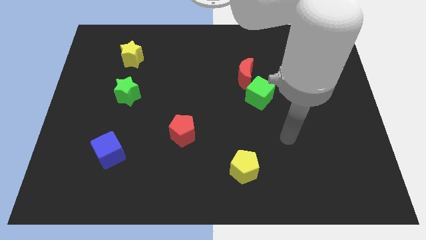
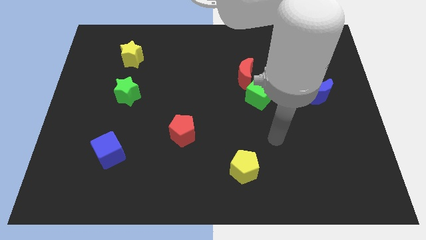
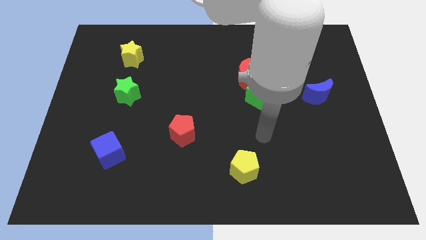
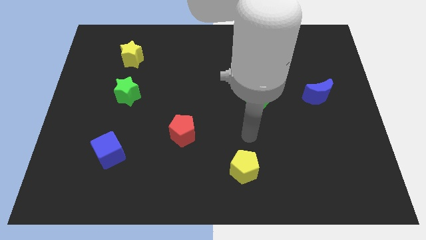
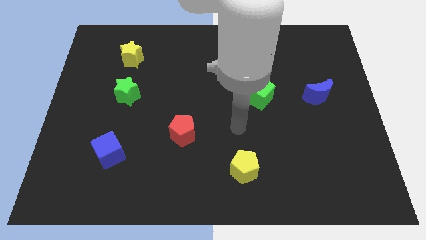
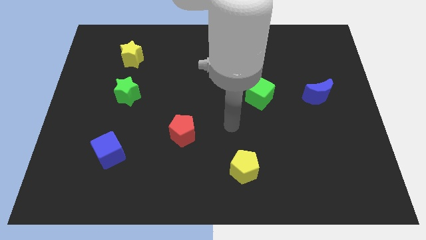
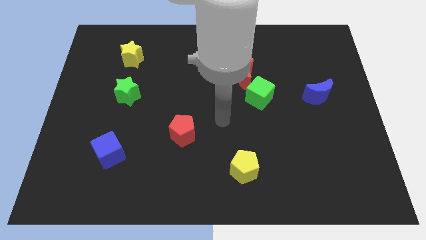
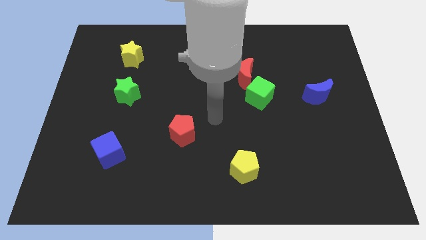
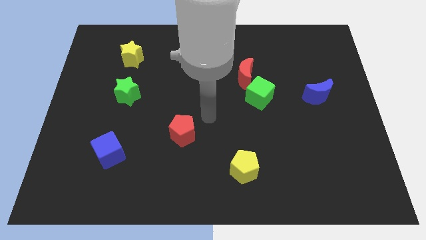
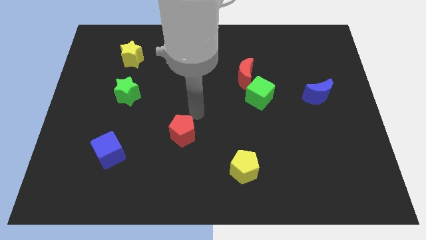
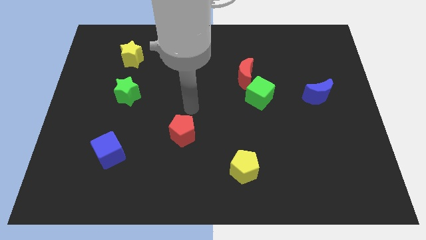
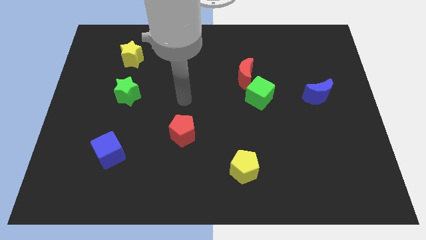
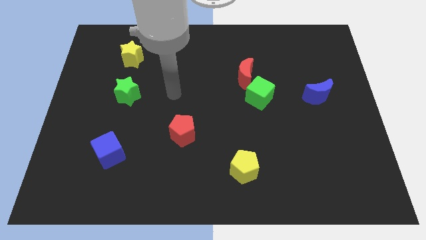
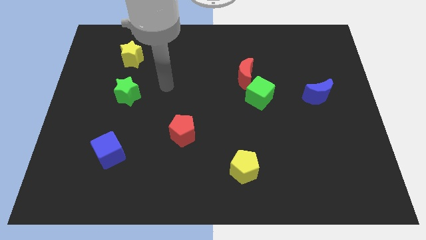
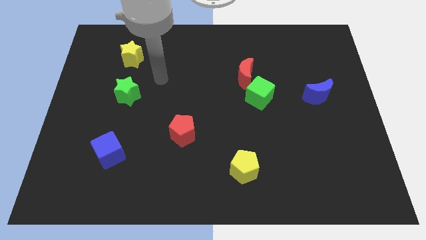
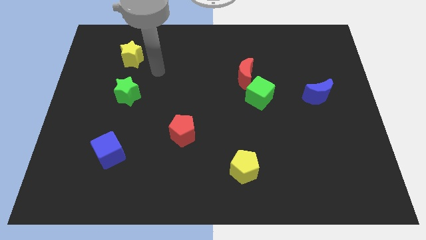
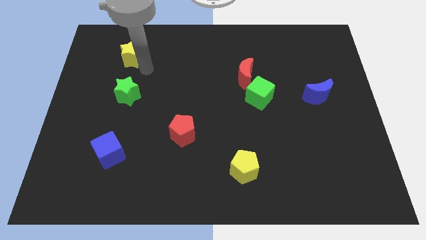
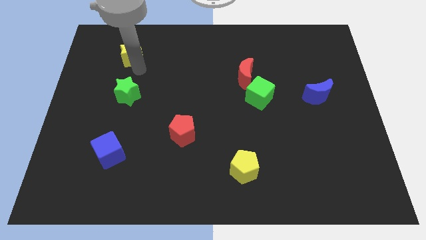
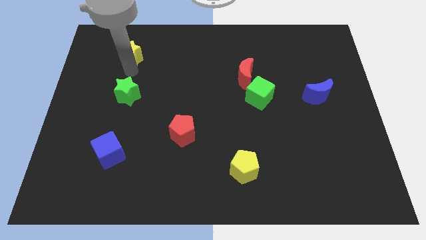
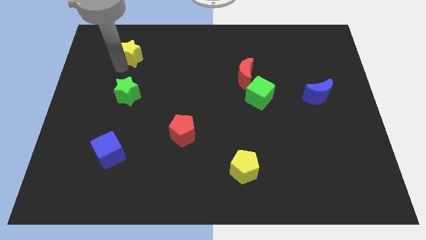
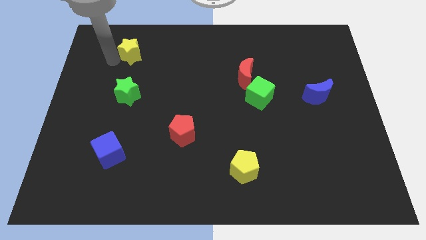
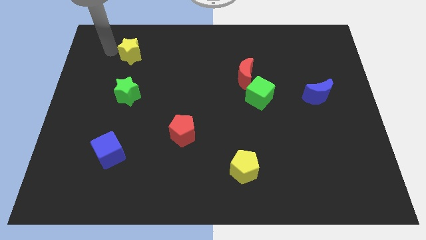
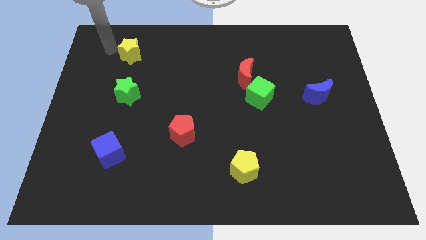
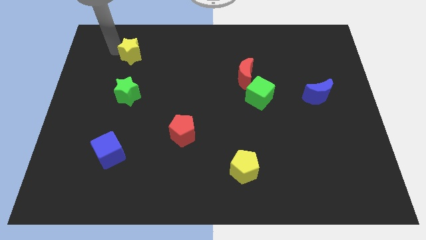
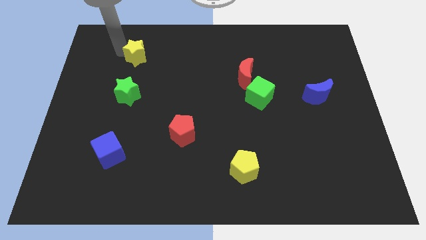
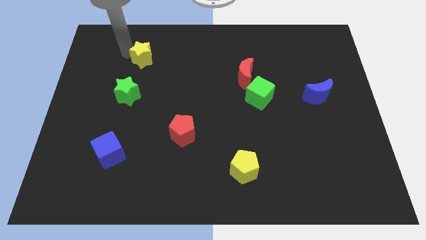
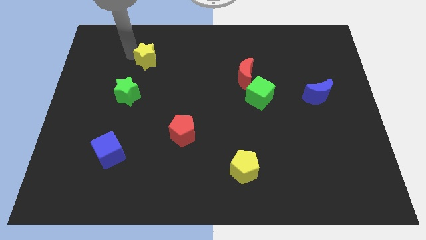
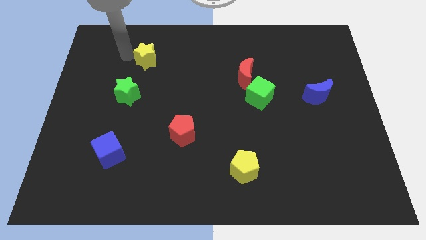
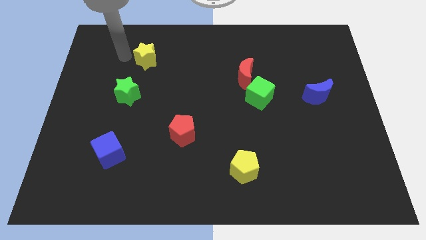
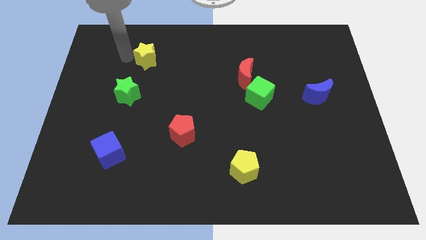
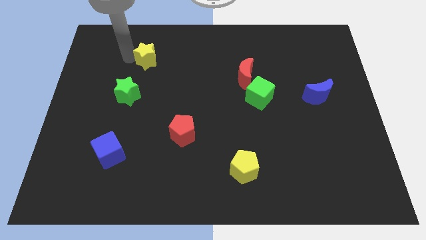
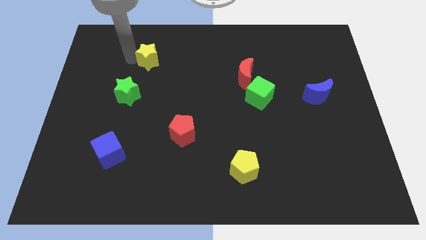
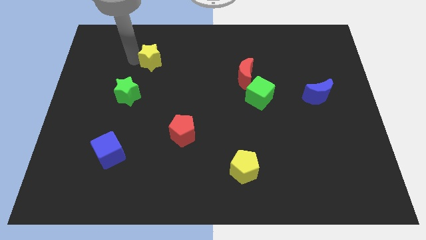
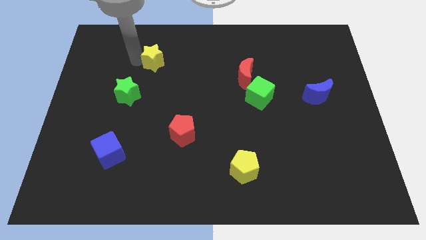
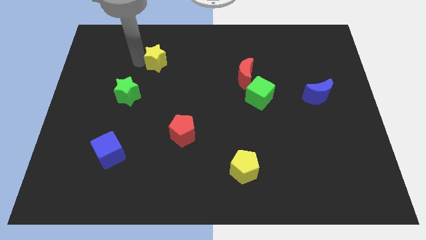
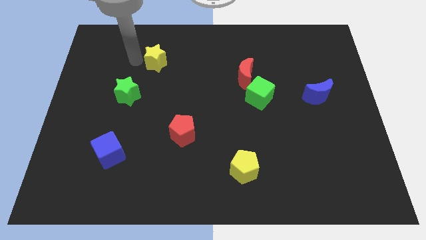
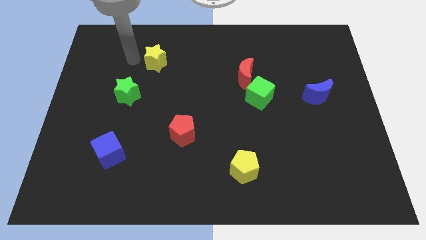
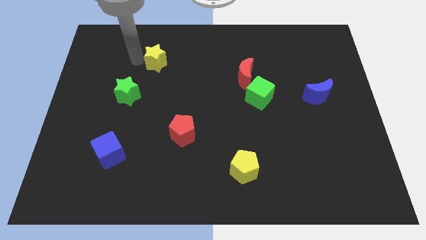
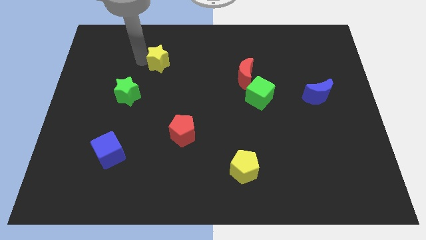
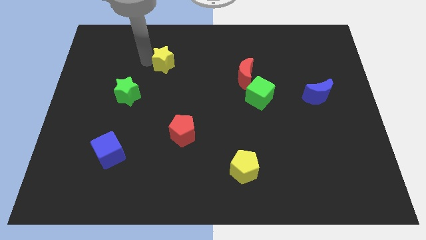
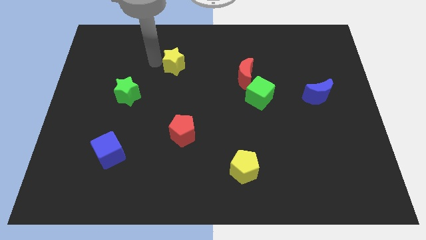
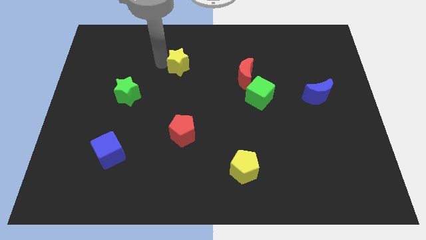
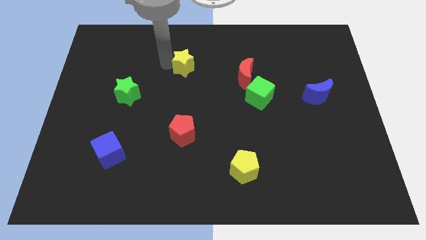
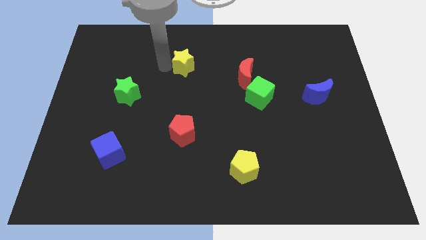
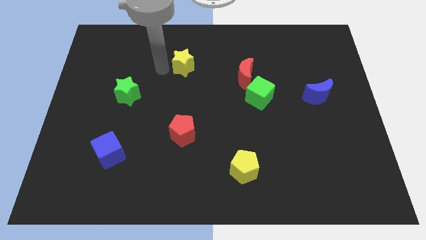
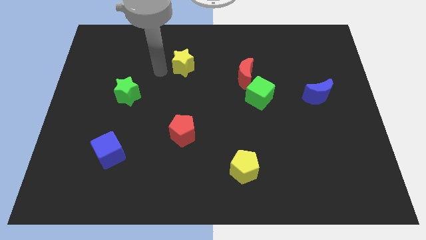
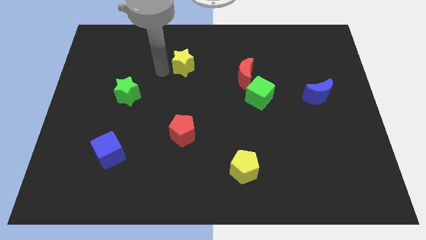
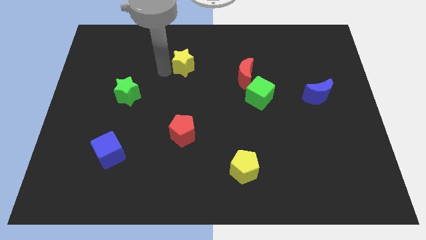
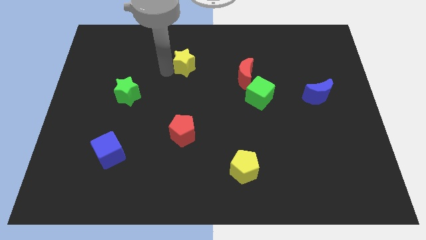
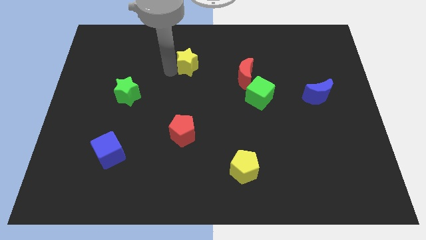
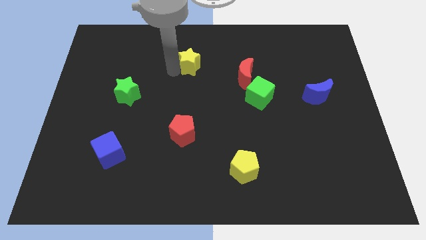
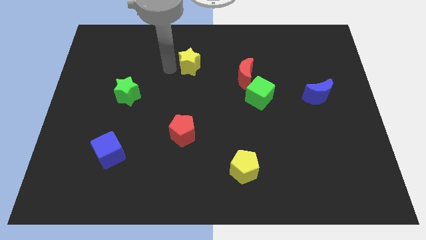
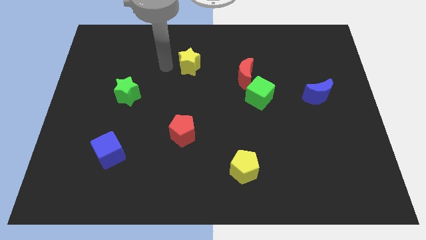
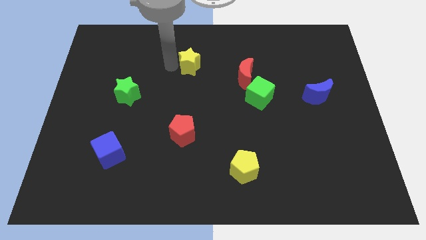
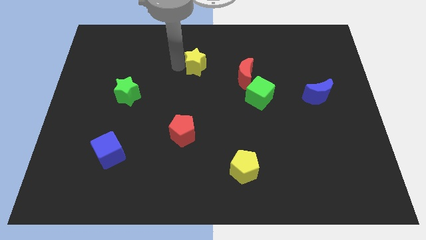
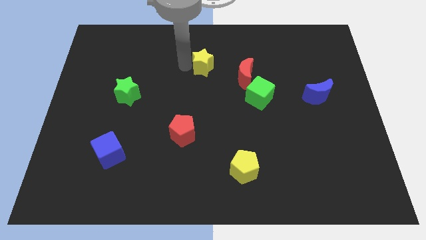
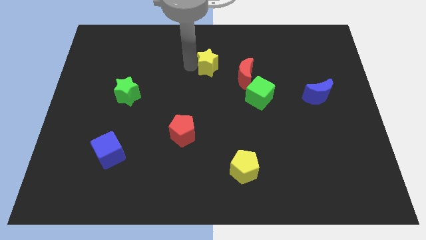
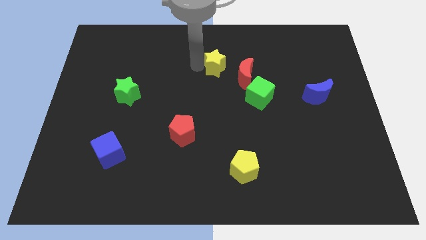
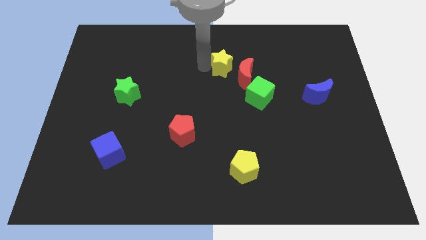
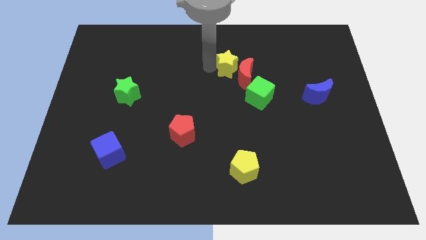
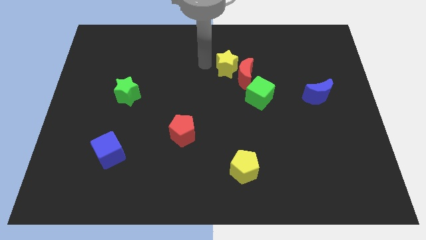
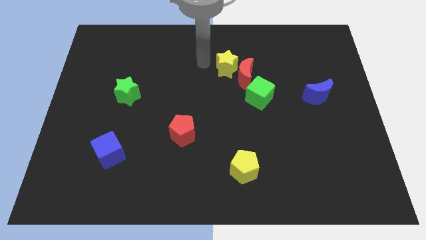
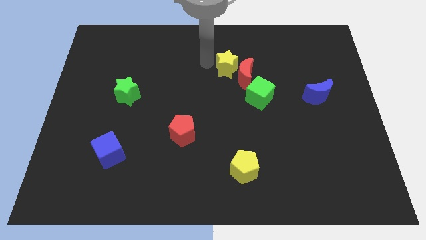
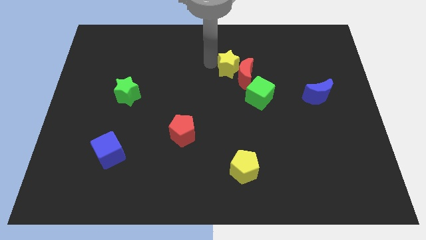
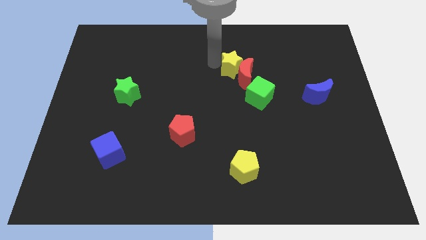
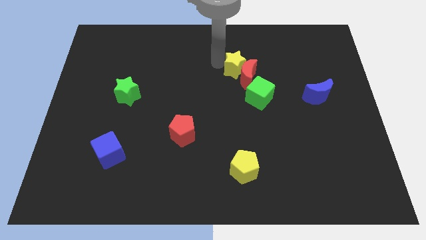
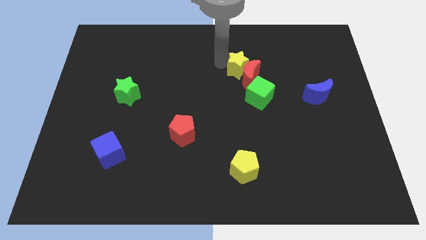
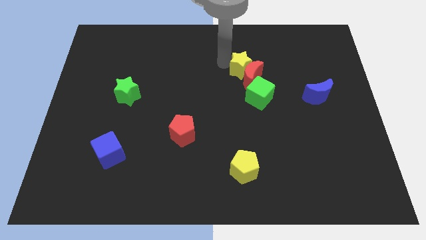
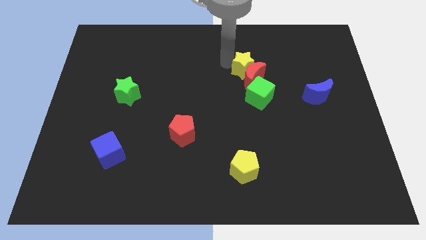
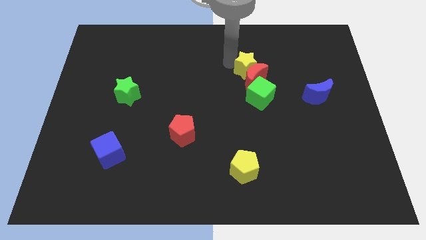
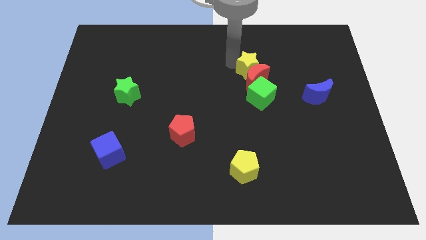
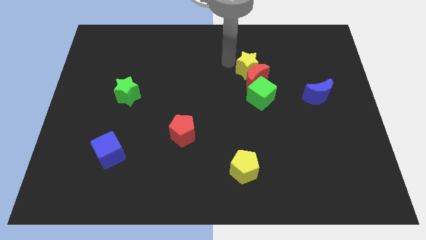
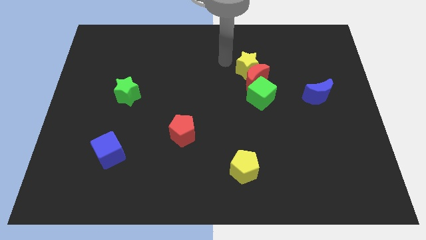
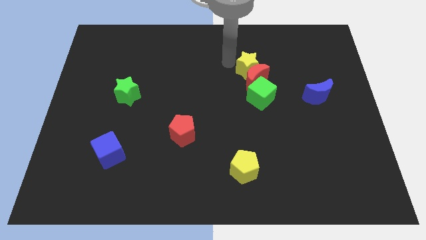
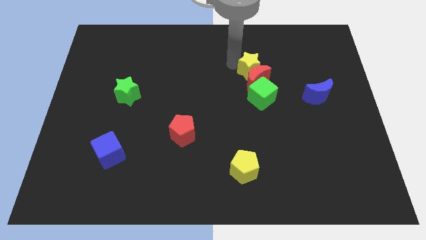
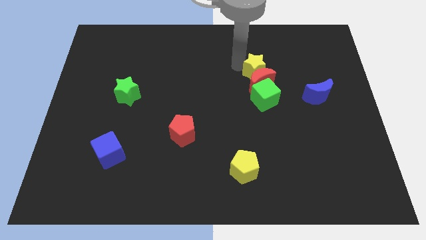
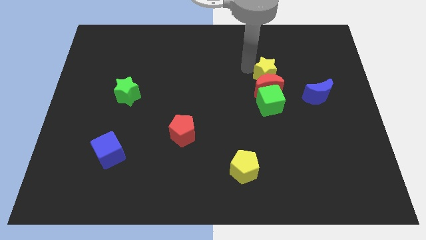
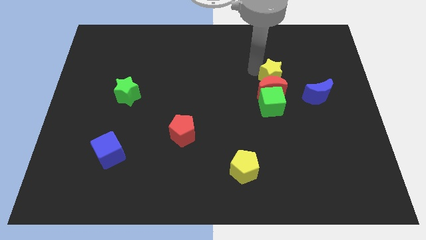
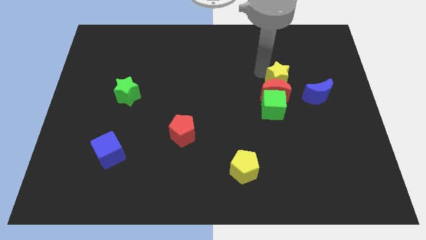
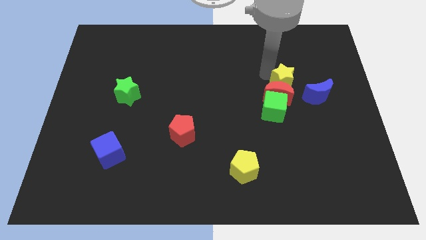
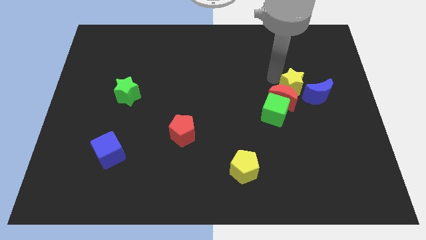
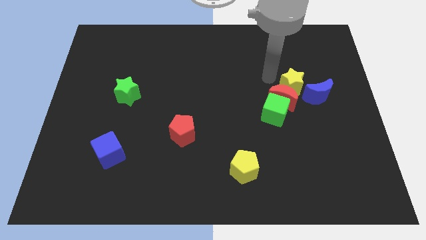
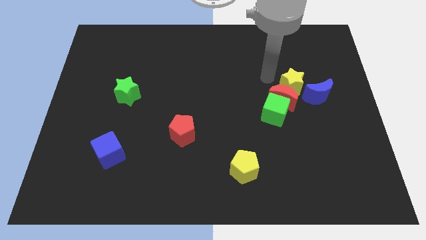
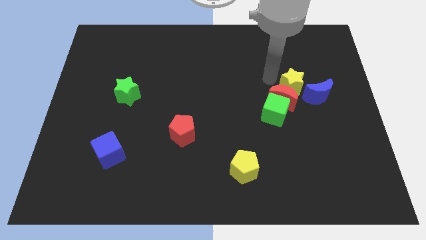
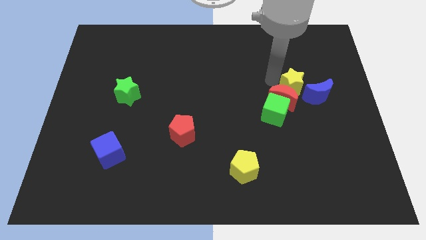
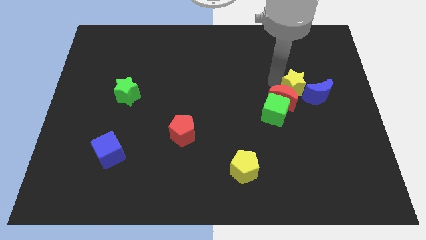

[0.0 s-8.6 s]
put the yellow star close to the blue moon
